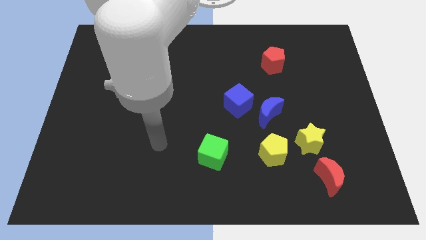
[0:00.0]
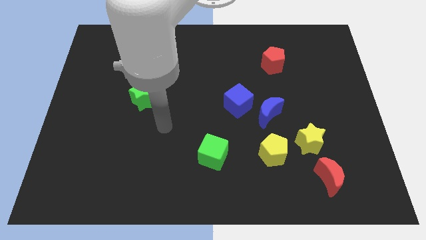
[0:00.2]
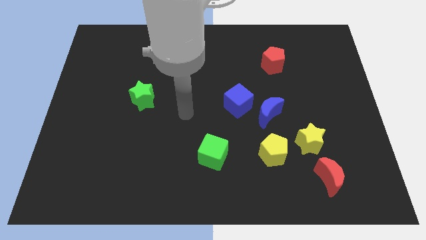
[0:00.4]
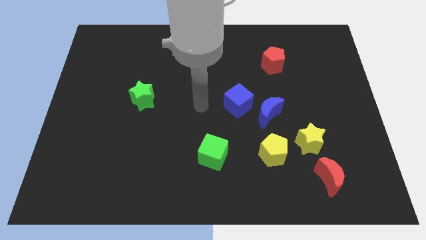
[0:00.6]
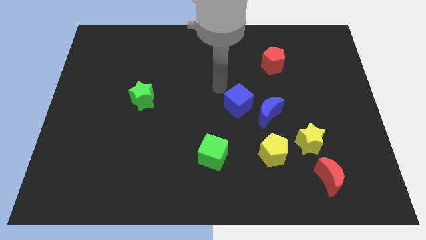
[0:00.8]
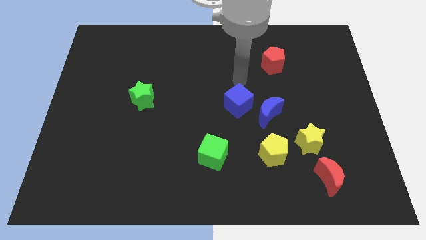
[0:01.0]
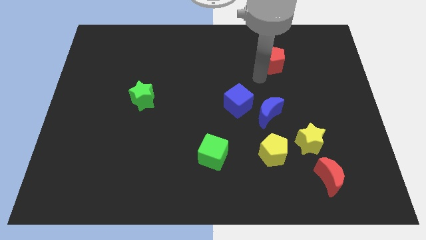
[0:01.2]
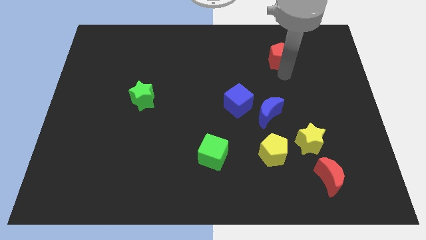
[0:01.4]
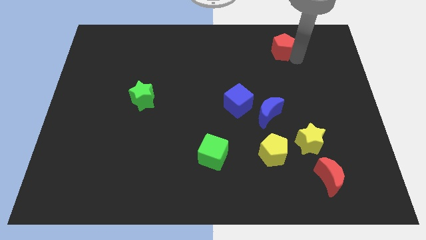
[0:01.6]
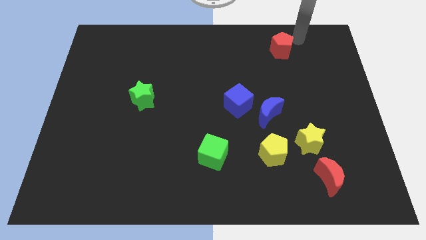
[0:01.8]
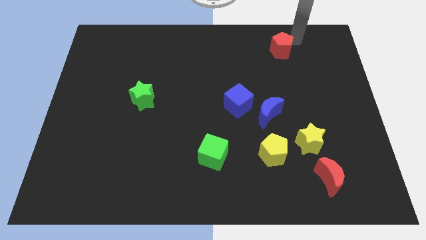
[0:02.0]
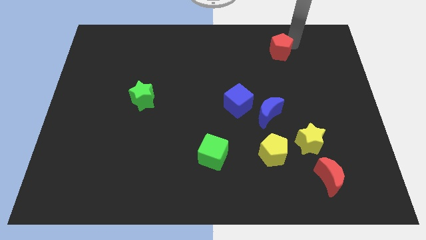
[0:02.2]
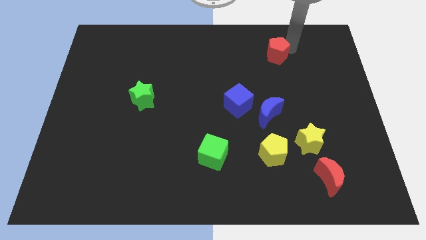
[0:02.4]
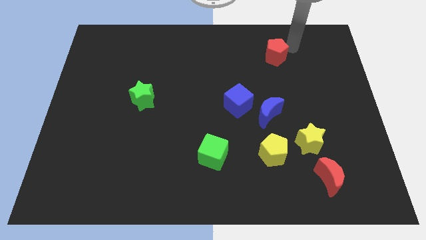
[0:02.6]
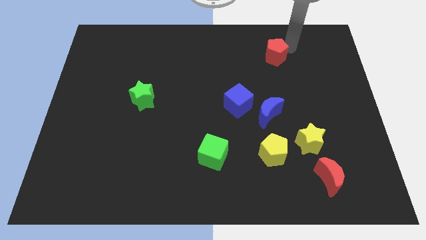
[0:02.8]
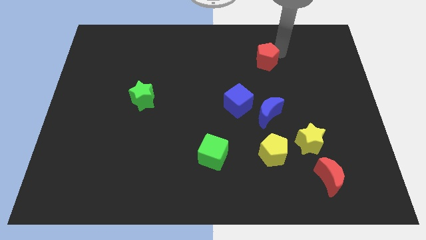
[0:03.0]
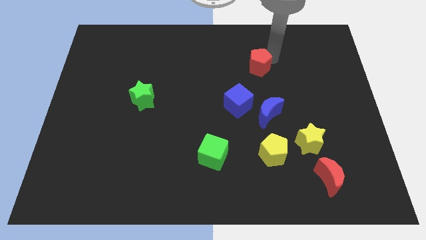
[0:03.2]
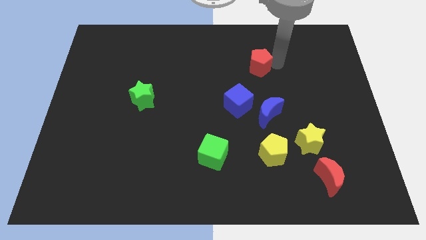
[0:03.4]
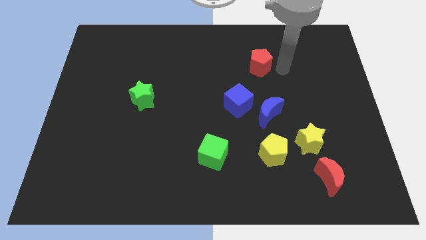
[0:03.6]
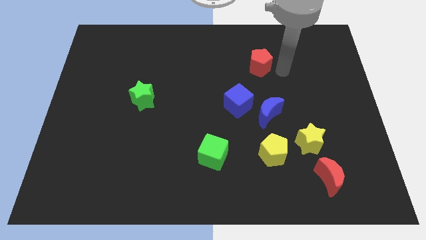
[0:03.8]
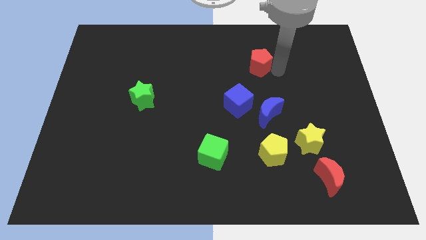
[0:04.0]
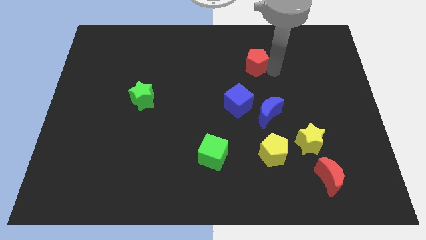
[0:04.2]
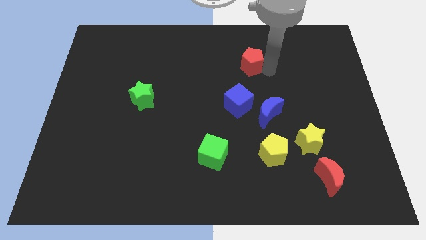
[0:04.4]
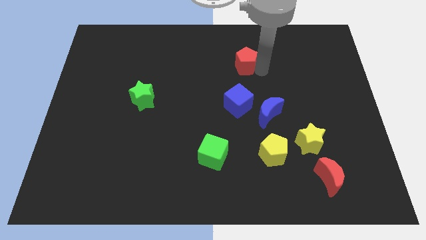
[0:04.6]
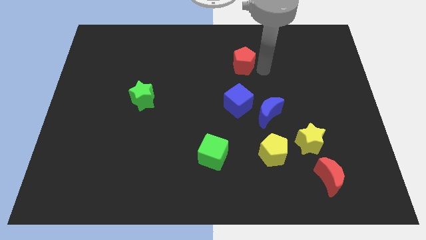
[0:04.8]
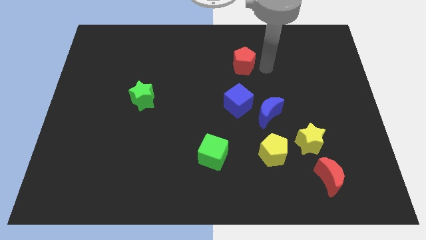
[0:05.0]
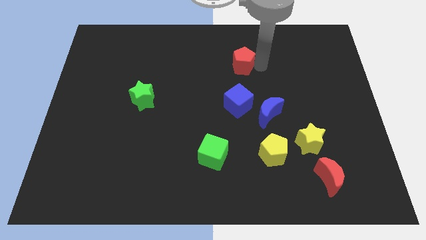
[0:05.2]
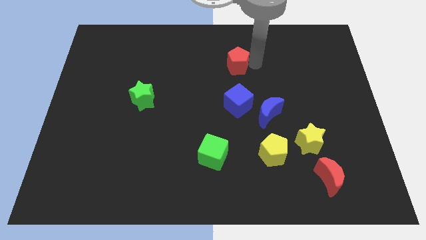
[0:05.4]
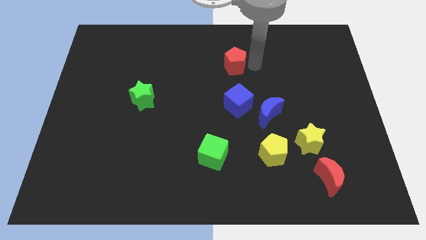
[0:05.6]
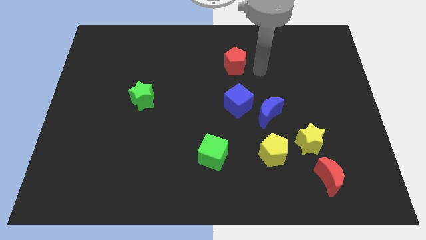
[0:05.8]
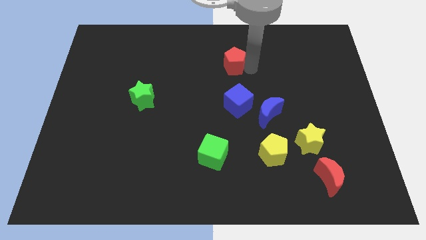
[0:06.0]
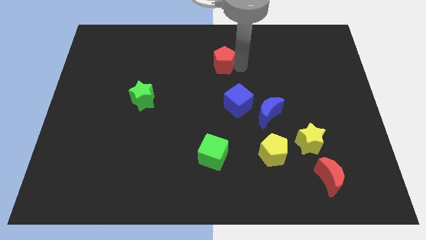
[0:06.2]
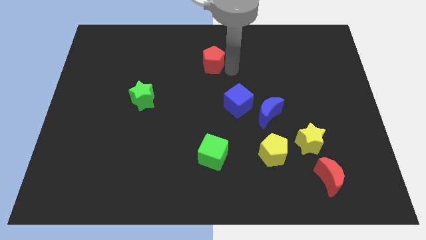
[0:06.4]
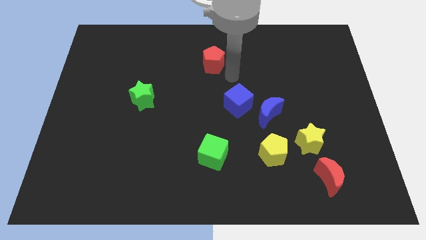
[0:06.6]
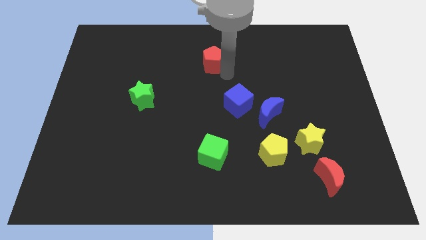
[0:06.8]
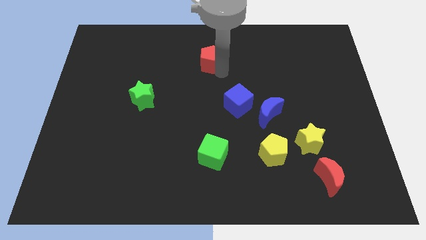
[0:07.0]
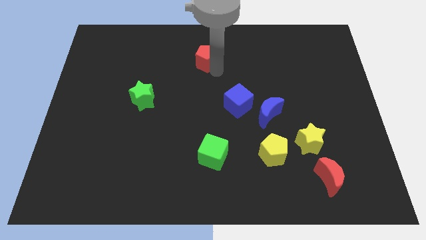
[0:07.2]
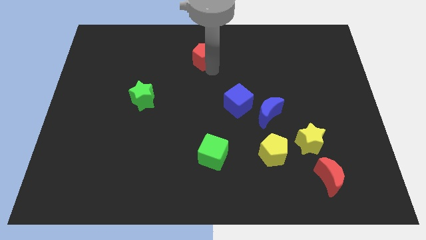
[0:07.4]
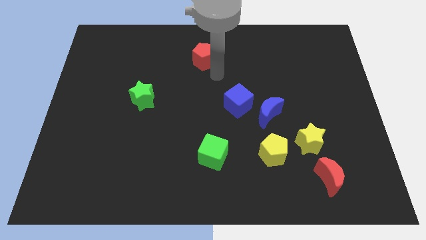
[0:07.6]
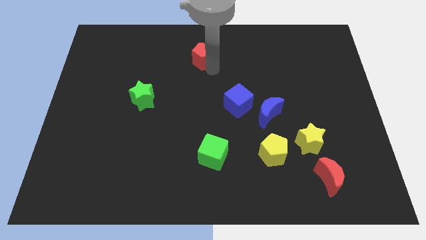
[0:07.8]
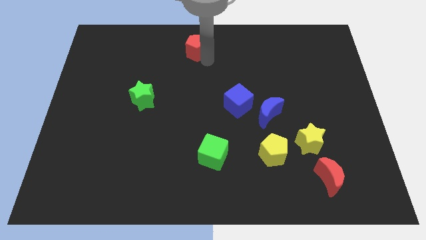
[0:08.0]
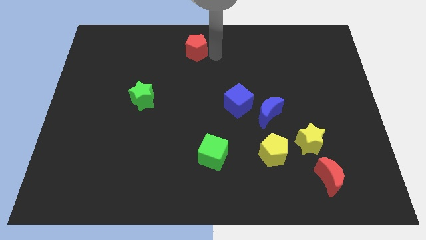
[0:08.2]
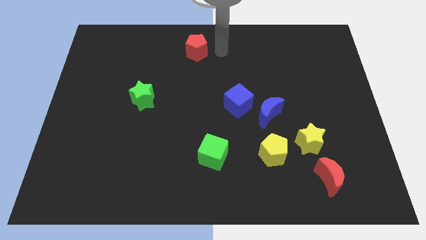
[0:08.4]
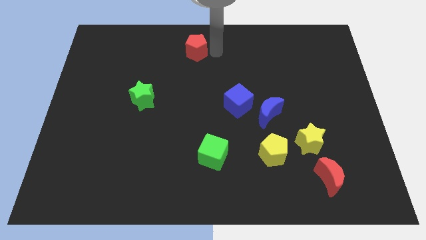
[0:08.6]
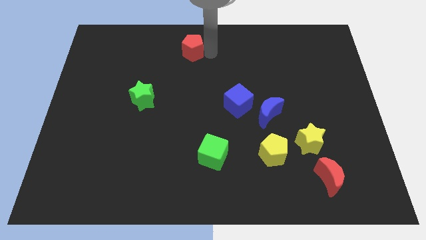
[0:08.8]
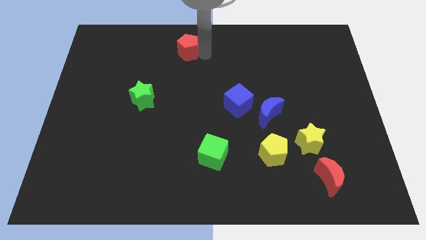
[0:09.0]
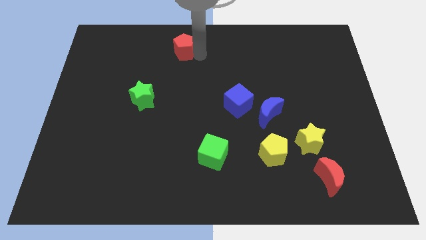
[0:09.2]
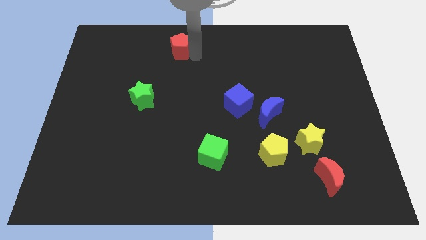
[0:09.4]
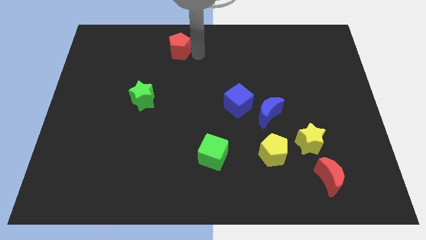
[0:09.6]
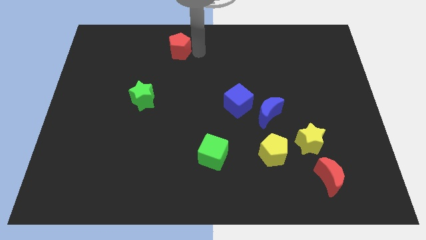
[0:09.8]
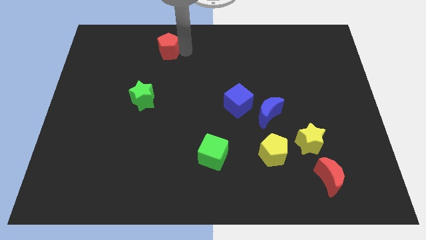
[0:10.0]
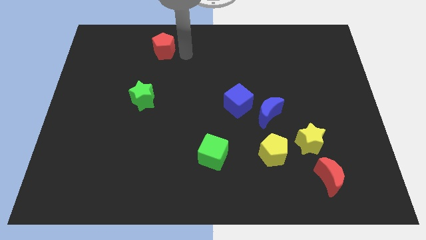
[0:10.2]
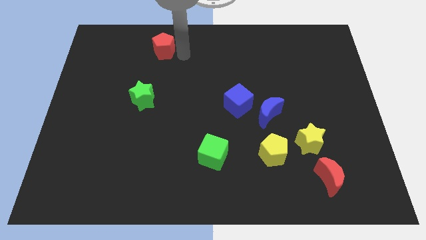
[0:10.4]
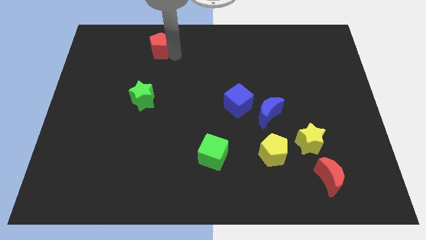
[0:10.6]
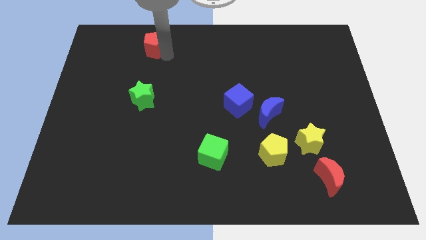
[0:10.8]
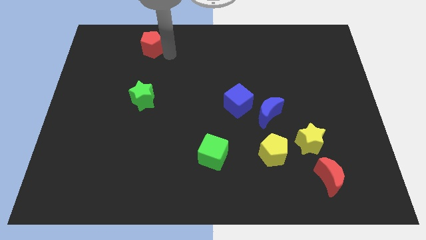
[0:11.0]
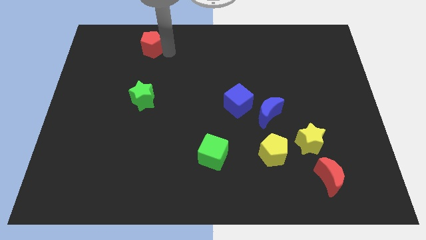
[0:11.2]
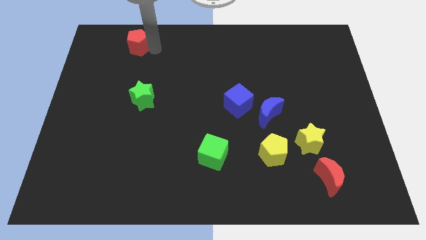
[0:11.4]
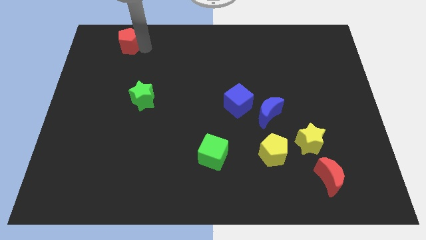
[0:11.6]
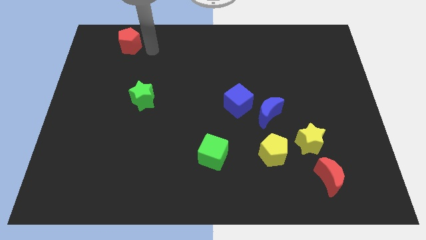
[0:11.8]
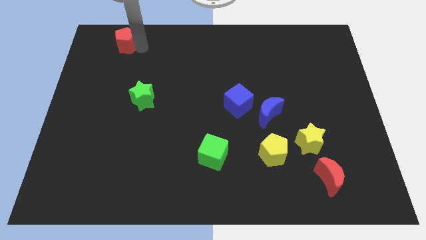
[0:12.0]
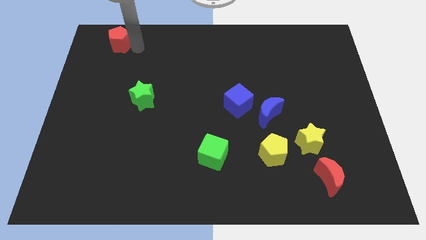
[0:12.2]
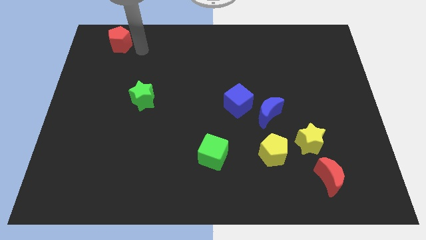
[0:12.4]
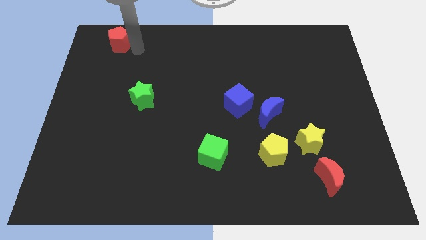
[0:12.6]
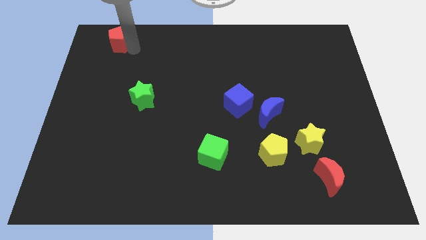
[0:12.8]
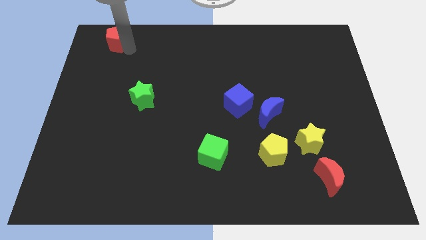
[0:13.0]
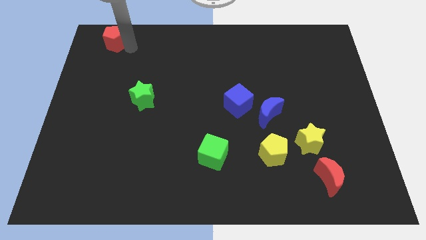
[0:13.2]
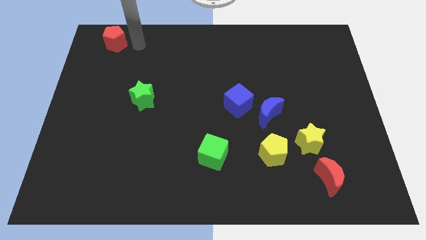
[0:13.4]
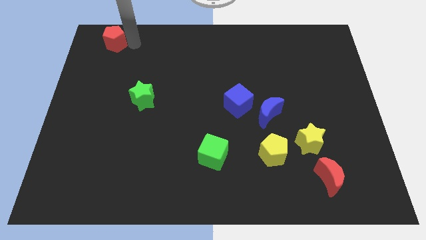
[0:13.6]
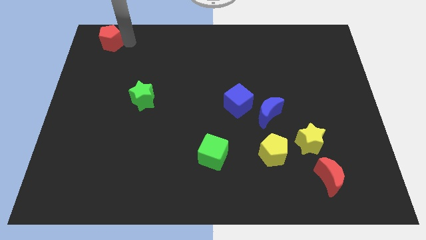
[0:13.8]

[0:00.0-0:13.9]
slide the red pentagon to the top left corner
